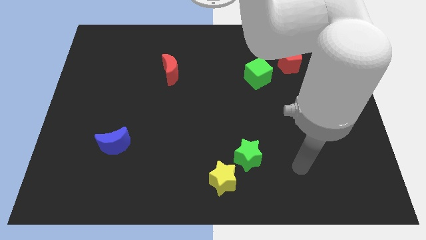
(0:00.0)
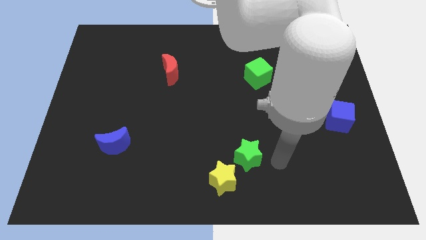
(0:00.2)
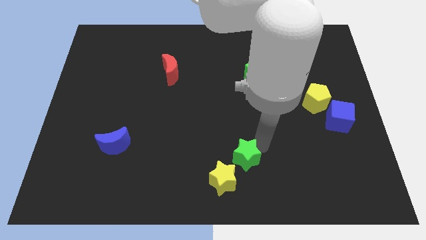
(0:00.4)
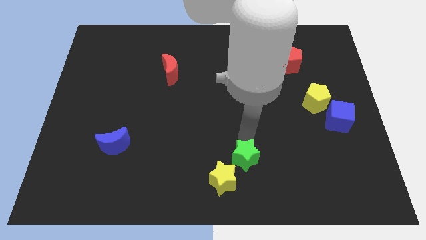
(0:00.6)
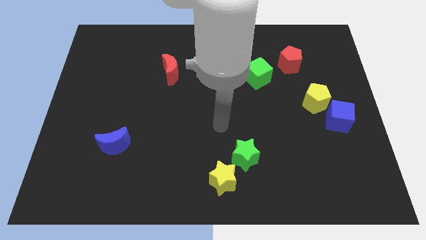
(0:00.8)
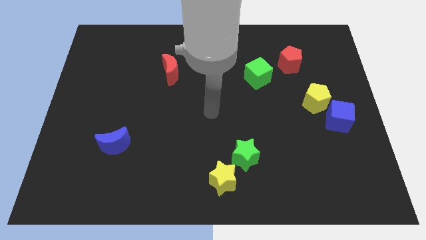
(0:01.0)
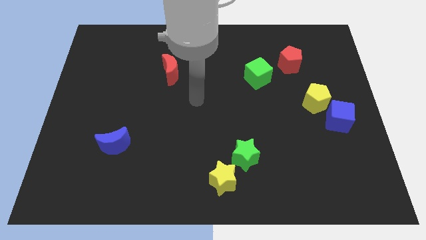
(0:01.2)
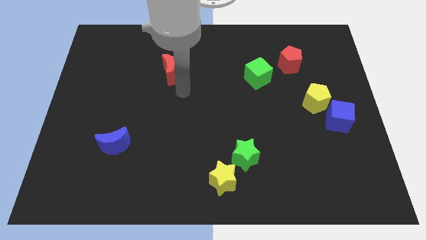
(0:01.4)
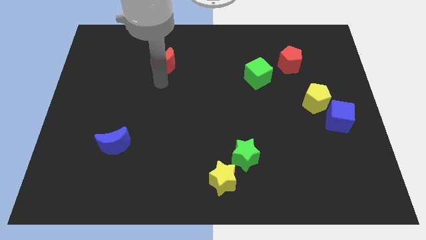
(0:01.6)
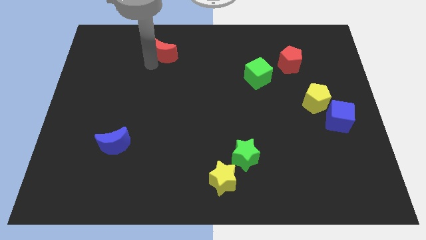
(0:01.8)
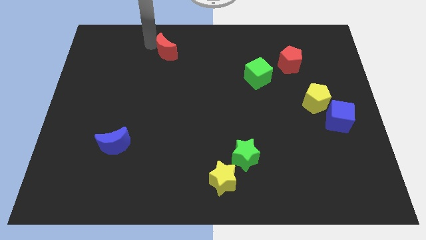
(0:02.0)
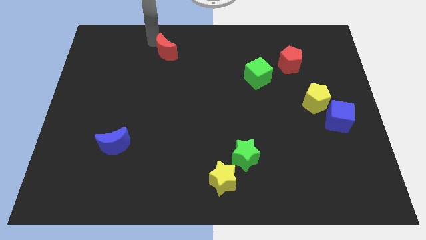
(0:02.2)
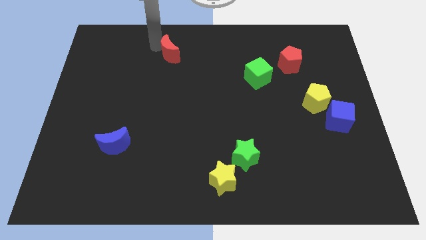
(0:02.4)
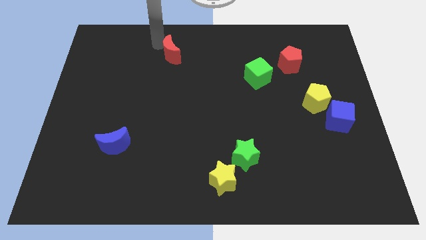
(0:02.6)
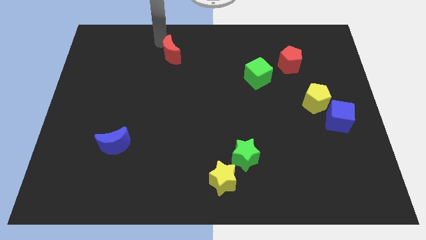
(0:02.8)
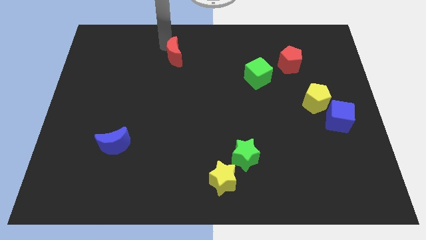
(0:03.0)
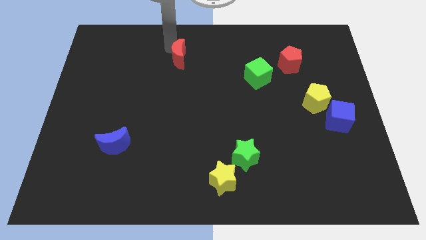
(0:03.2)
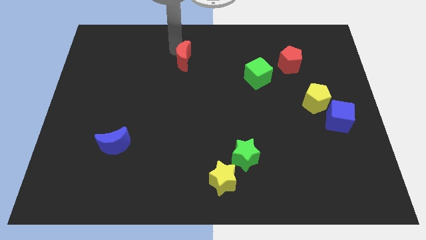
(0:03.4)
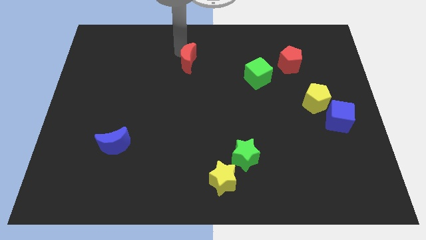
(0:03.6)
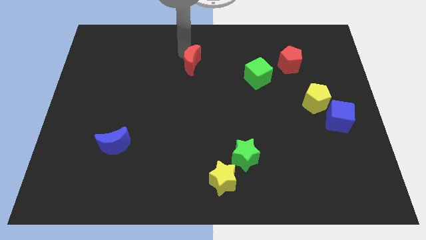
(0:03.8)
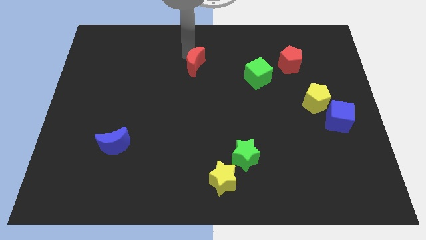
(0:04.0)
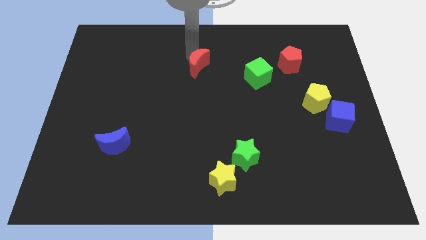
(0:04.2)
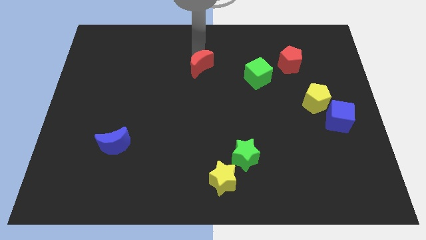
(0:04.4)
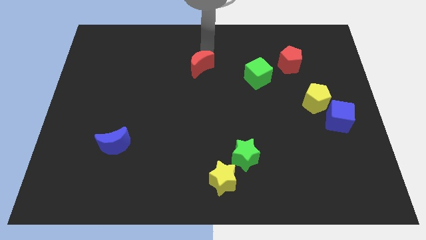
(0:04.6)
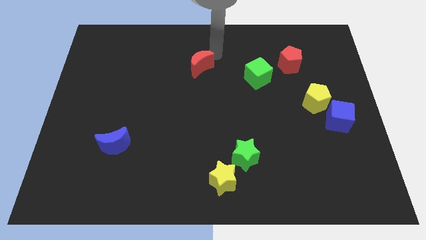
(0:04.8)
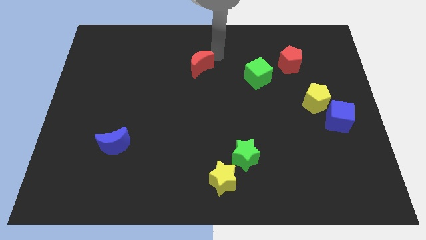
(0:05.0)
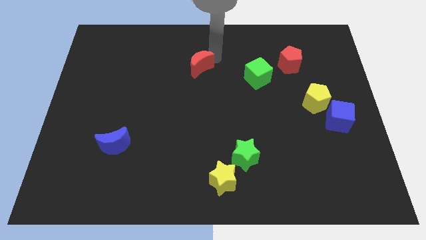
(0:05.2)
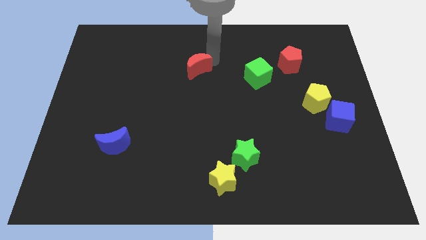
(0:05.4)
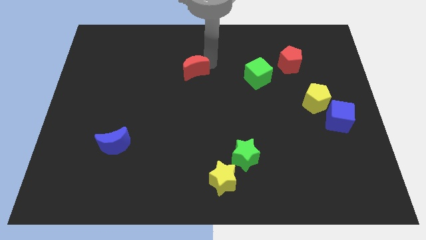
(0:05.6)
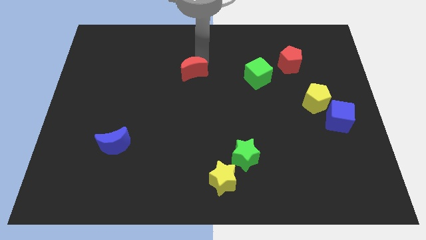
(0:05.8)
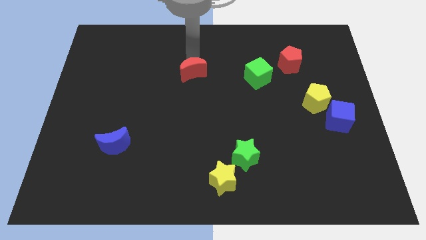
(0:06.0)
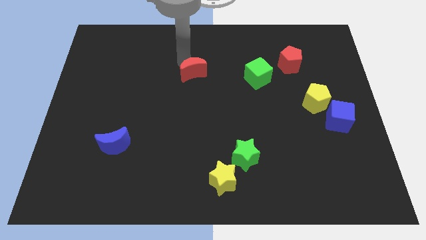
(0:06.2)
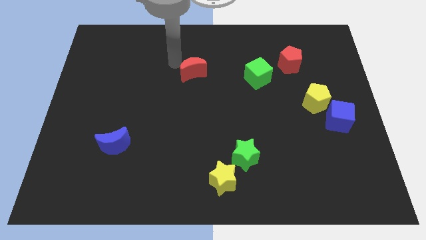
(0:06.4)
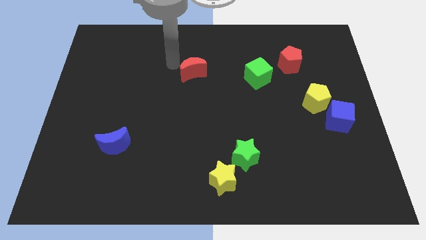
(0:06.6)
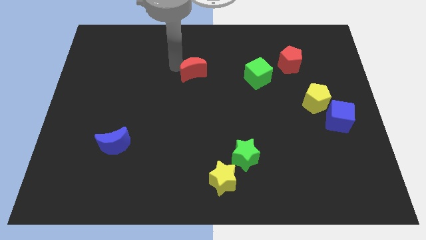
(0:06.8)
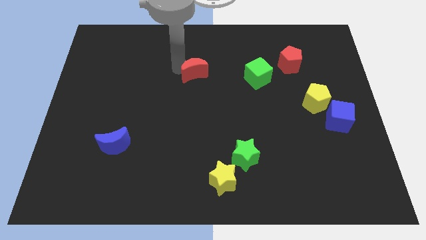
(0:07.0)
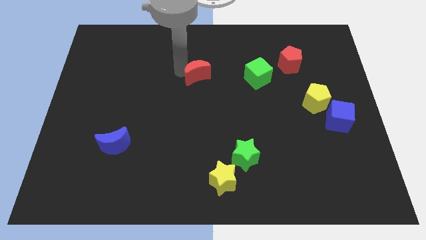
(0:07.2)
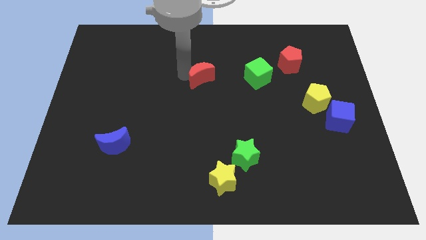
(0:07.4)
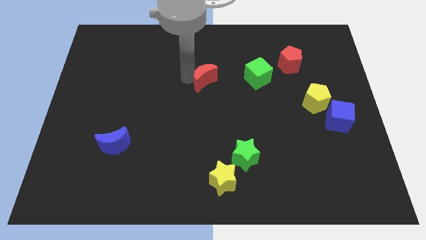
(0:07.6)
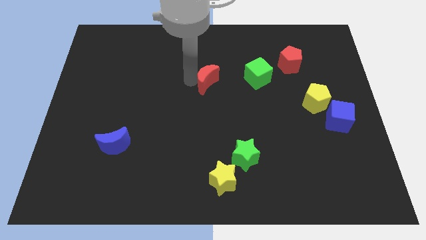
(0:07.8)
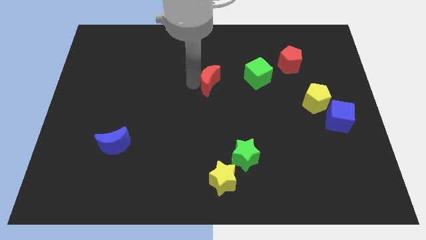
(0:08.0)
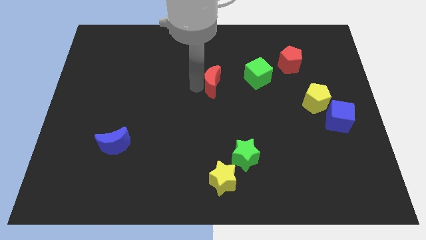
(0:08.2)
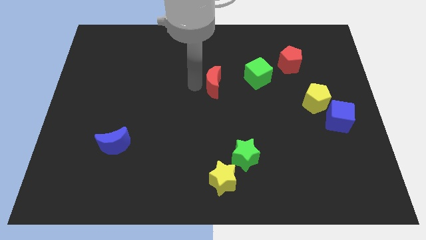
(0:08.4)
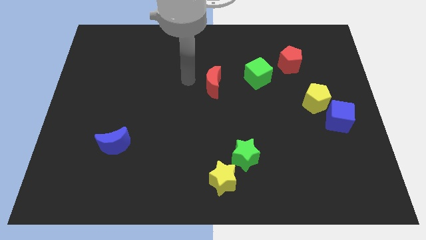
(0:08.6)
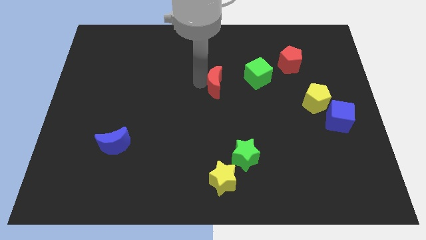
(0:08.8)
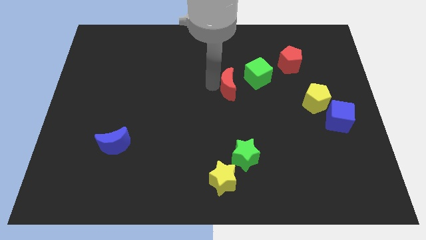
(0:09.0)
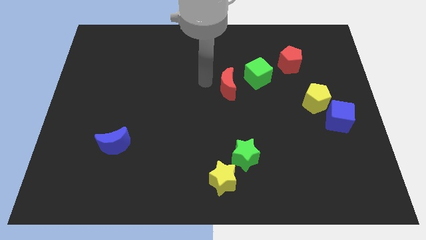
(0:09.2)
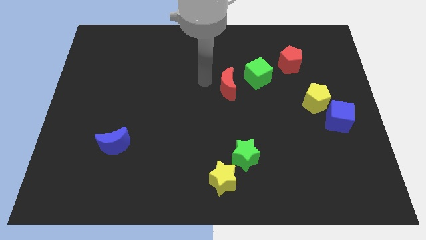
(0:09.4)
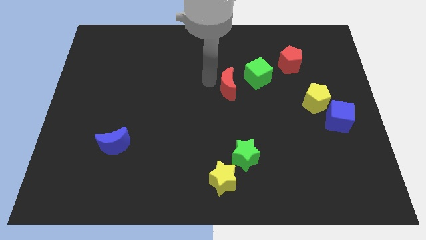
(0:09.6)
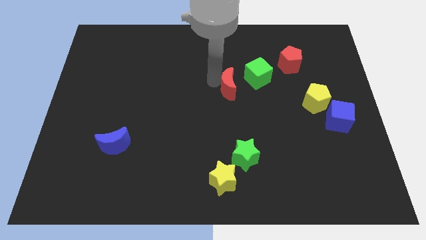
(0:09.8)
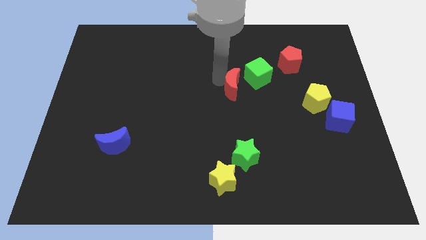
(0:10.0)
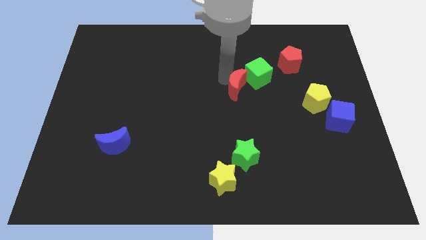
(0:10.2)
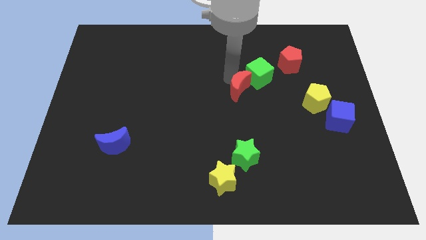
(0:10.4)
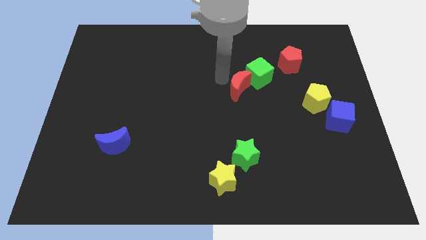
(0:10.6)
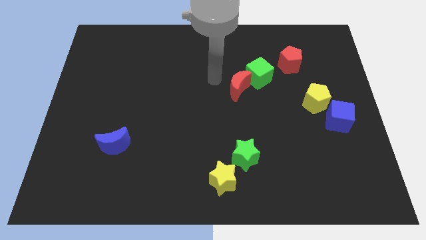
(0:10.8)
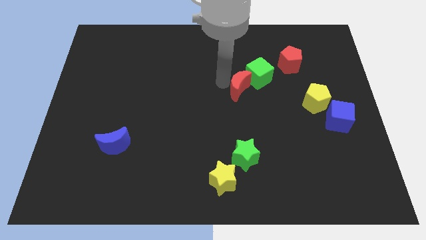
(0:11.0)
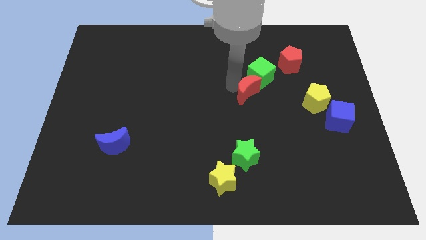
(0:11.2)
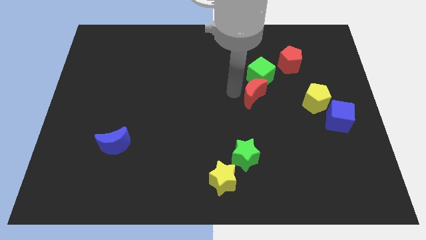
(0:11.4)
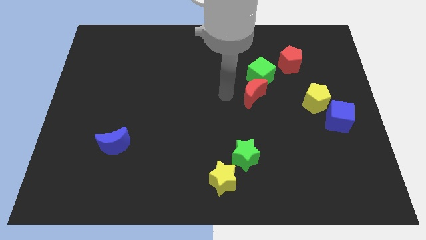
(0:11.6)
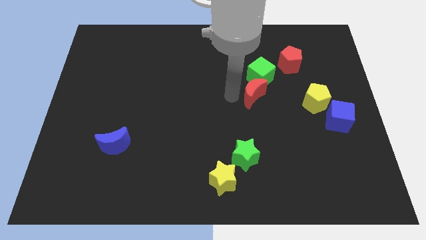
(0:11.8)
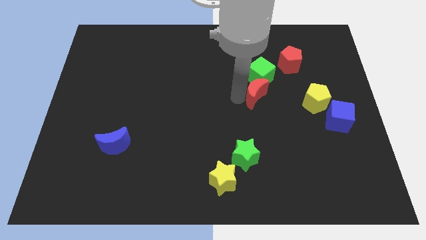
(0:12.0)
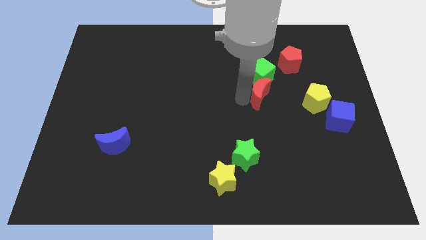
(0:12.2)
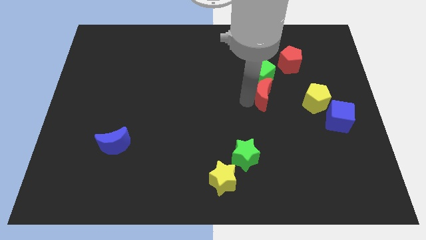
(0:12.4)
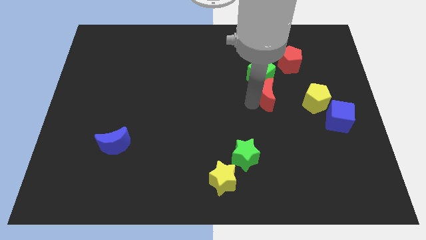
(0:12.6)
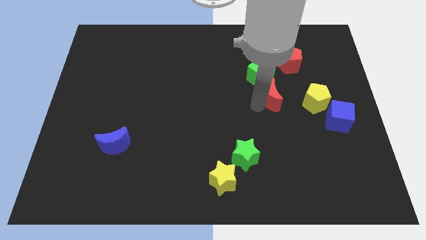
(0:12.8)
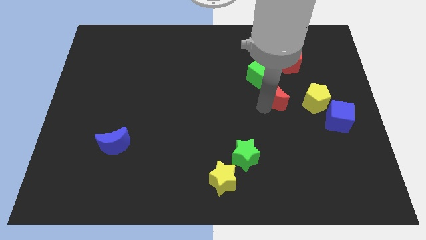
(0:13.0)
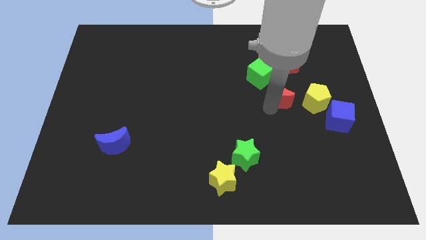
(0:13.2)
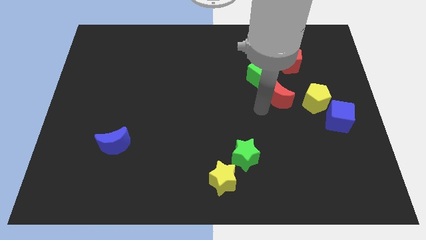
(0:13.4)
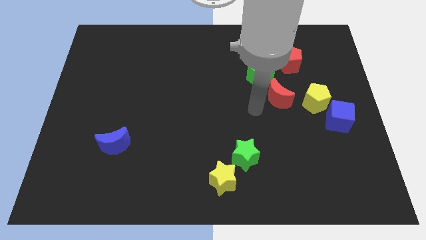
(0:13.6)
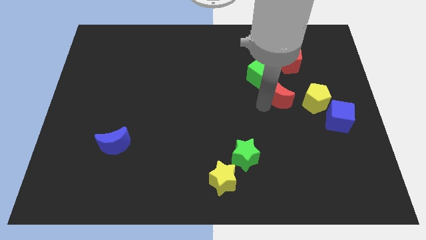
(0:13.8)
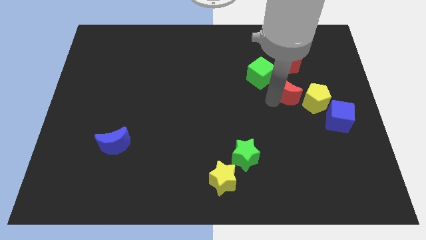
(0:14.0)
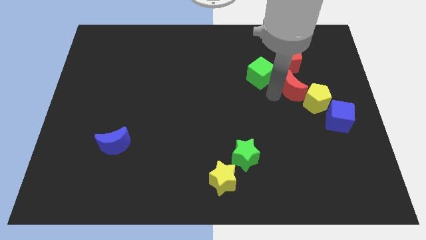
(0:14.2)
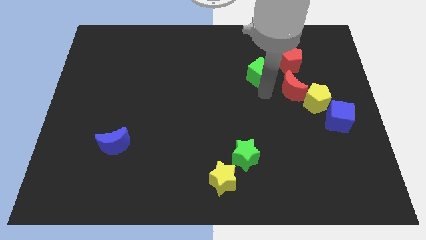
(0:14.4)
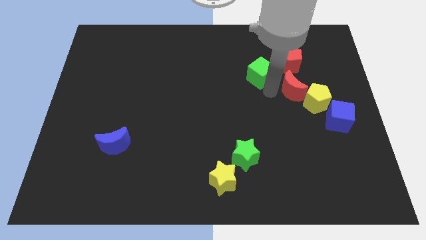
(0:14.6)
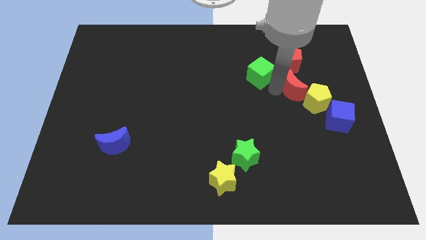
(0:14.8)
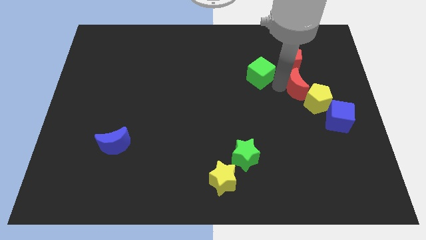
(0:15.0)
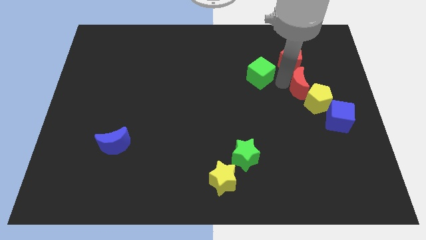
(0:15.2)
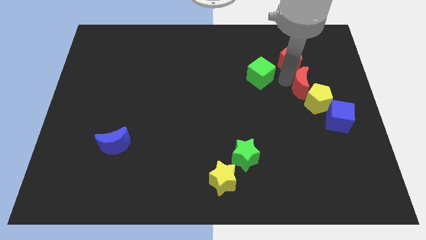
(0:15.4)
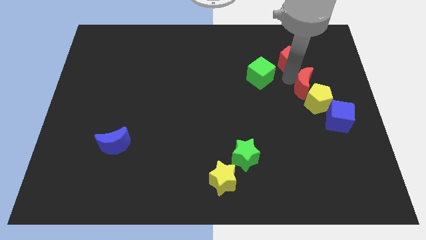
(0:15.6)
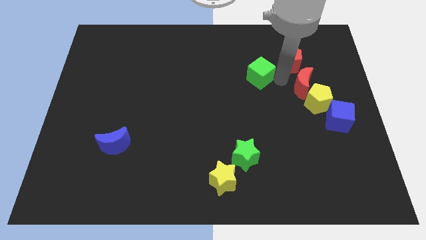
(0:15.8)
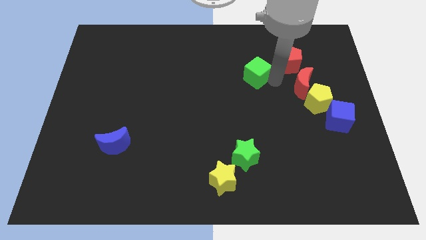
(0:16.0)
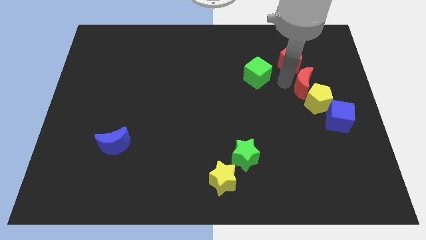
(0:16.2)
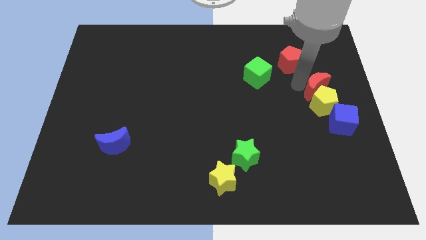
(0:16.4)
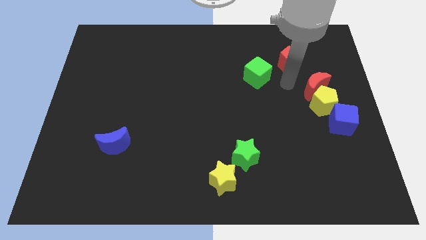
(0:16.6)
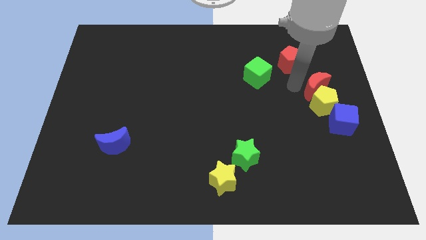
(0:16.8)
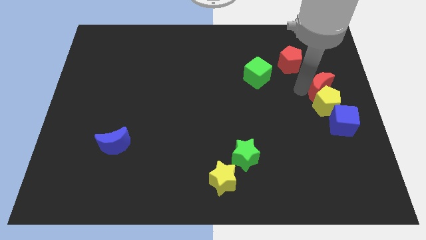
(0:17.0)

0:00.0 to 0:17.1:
push the red moon to the right side
